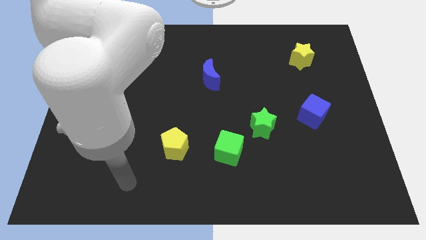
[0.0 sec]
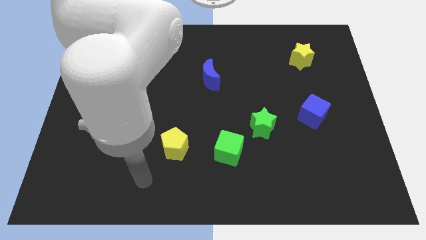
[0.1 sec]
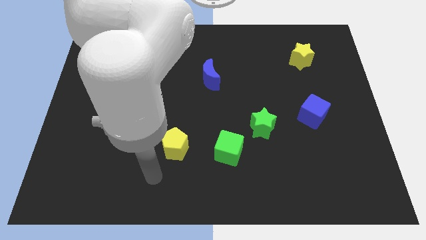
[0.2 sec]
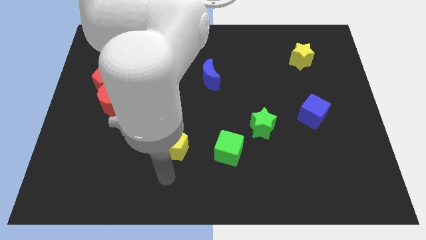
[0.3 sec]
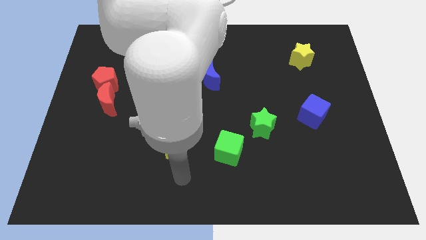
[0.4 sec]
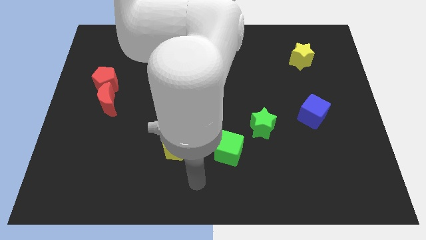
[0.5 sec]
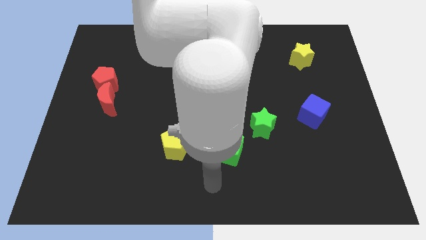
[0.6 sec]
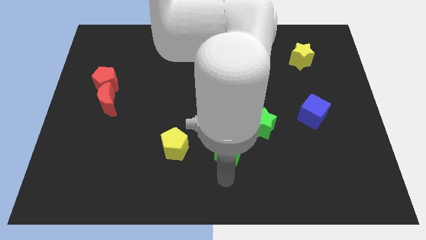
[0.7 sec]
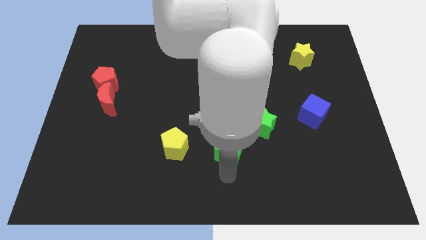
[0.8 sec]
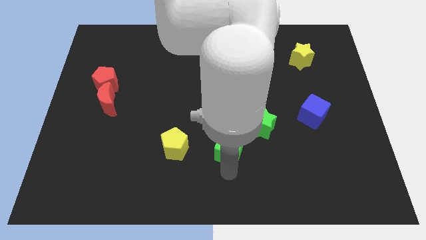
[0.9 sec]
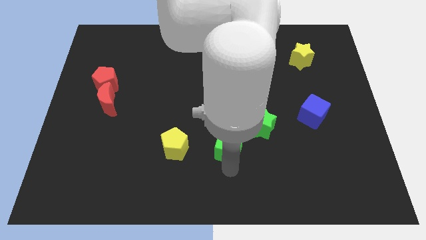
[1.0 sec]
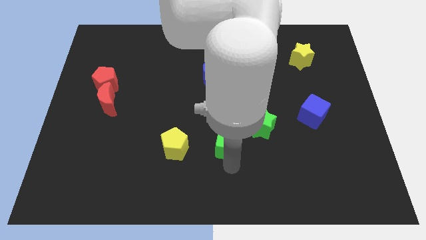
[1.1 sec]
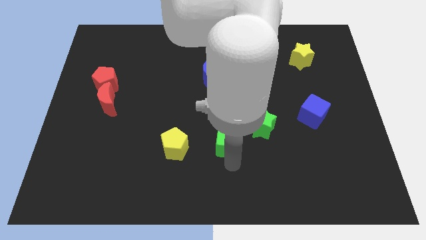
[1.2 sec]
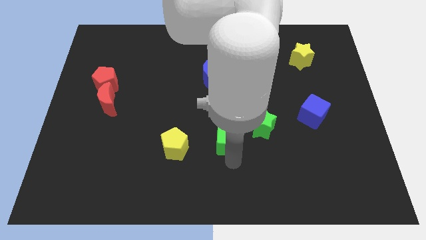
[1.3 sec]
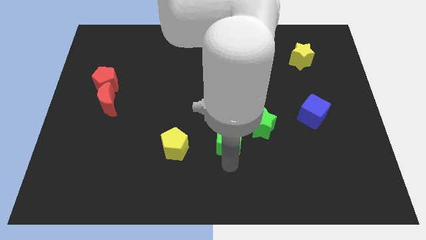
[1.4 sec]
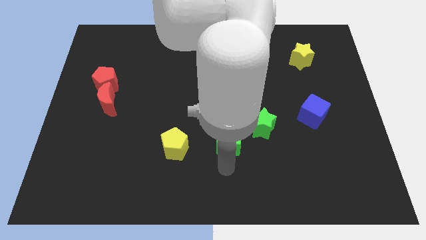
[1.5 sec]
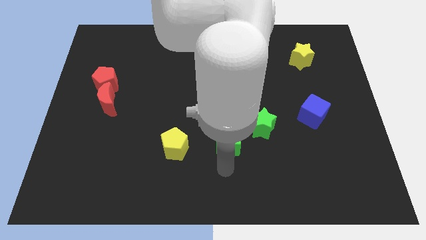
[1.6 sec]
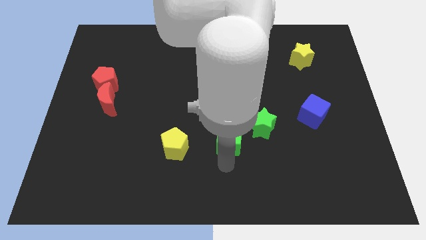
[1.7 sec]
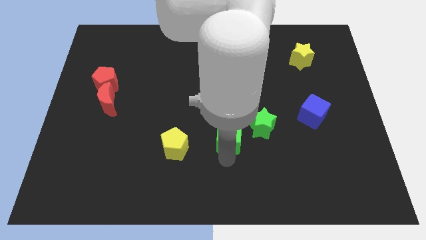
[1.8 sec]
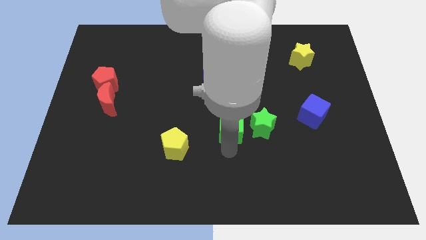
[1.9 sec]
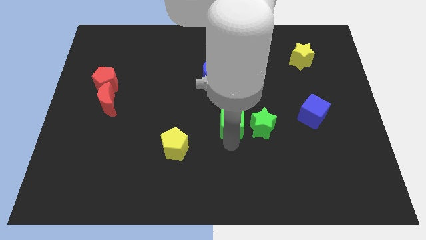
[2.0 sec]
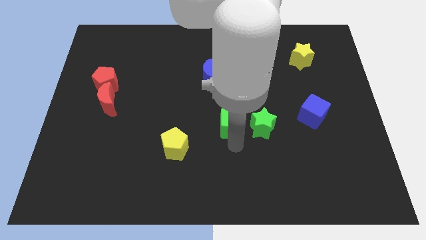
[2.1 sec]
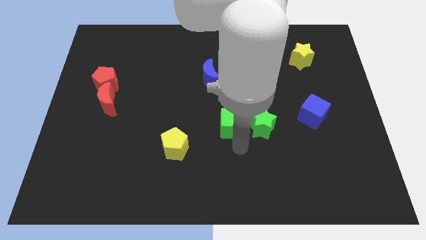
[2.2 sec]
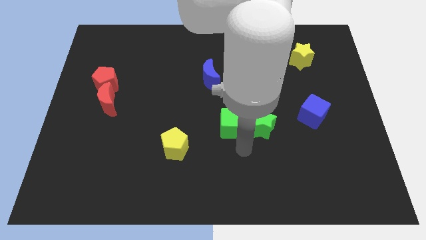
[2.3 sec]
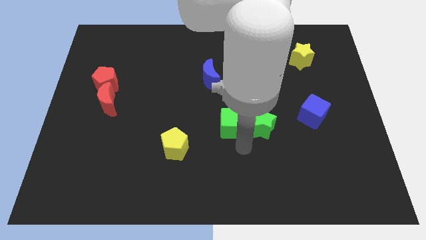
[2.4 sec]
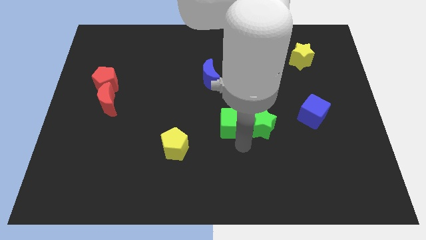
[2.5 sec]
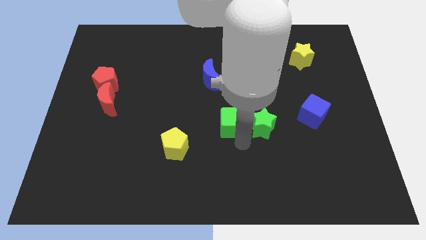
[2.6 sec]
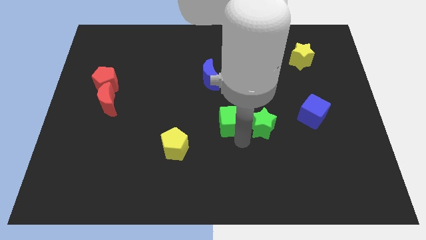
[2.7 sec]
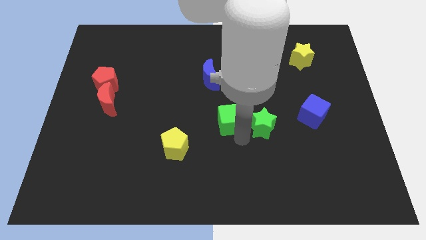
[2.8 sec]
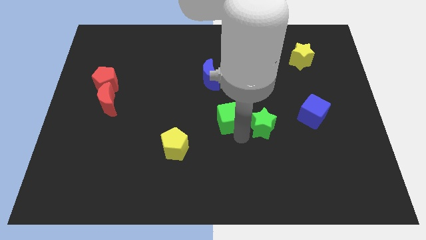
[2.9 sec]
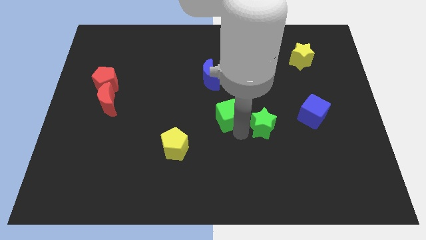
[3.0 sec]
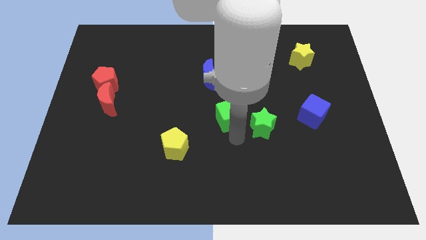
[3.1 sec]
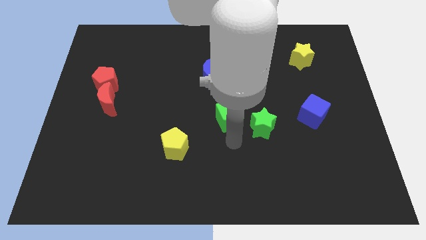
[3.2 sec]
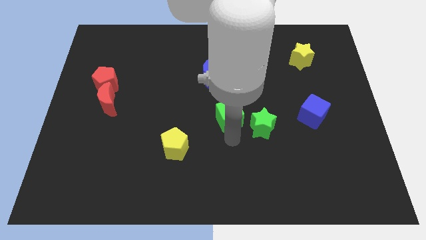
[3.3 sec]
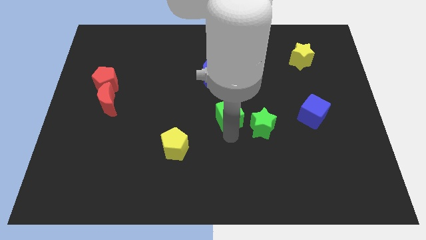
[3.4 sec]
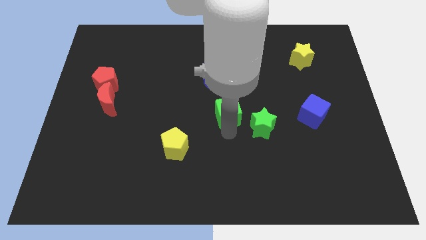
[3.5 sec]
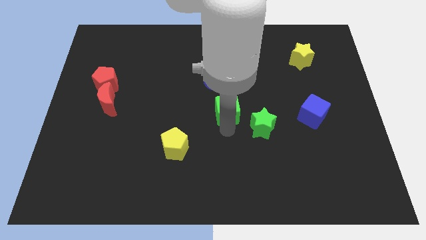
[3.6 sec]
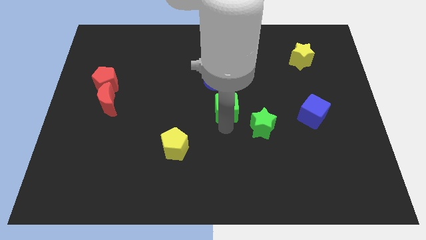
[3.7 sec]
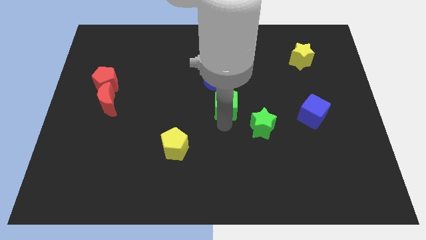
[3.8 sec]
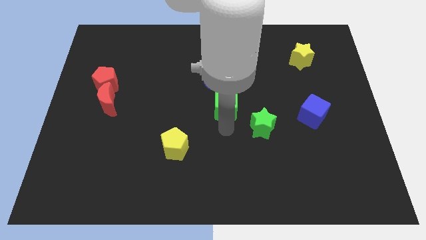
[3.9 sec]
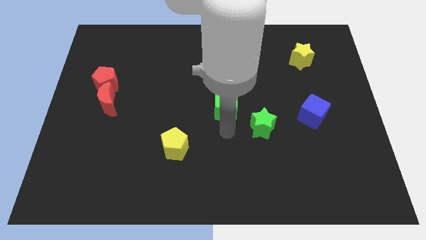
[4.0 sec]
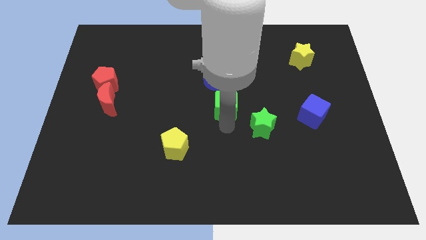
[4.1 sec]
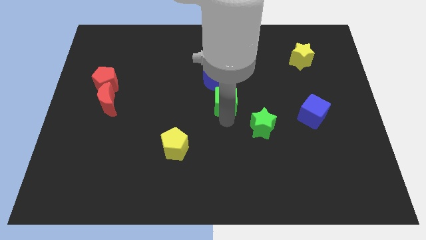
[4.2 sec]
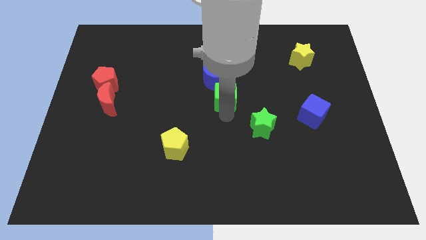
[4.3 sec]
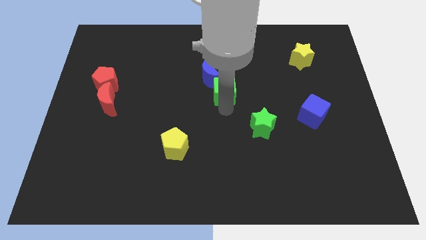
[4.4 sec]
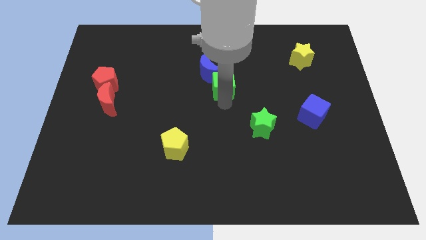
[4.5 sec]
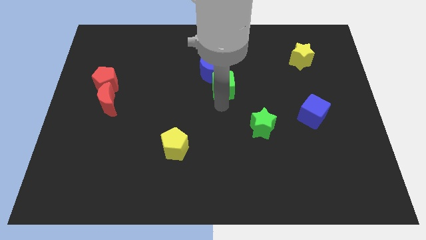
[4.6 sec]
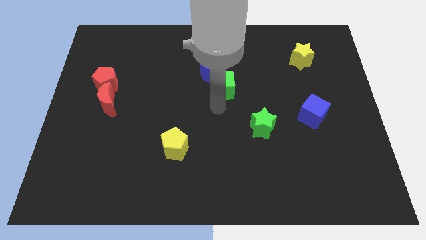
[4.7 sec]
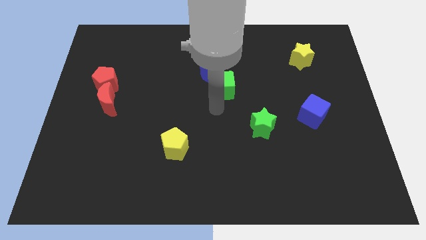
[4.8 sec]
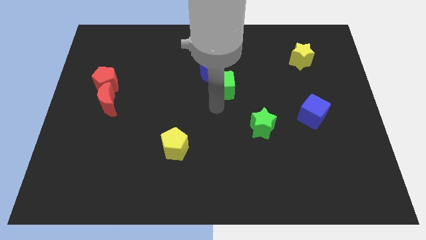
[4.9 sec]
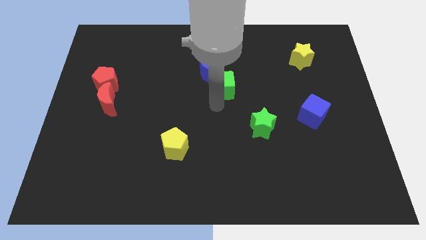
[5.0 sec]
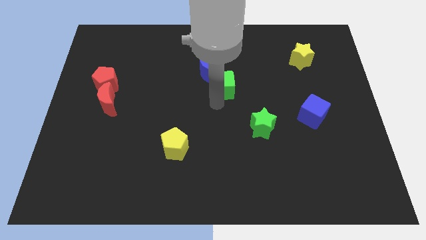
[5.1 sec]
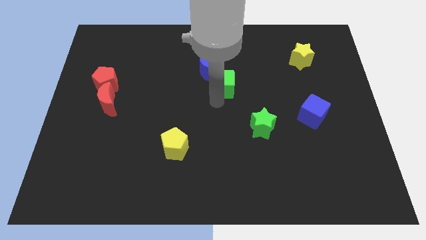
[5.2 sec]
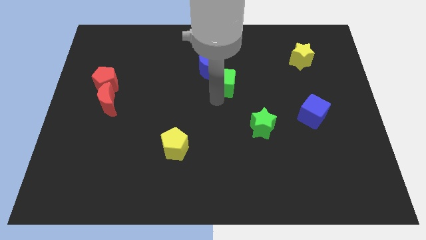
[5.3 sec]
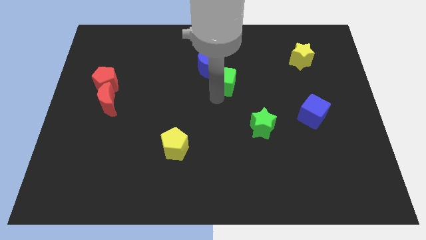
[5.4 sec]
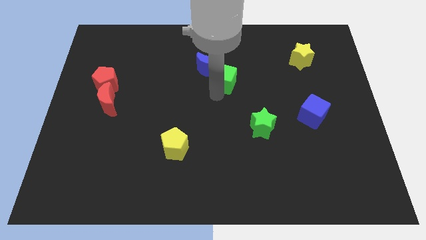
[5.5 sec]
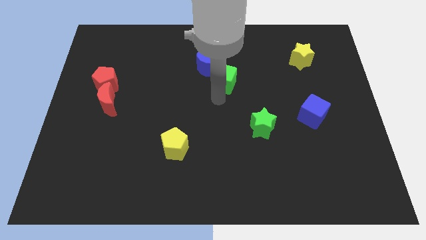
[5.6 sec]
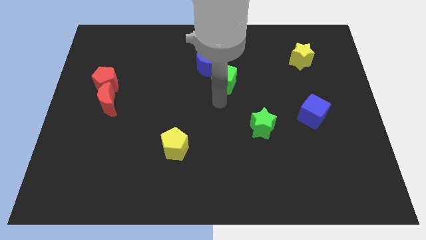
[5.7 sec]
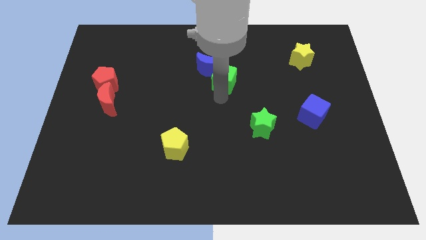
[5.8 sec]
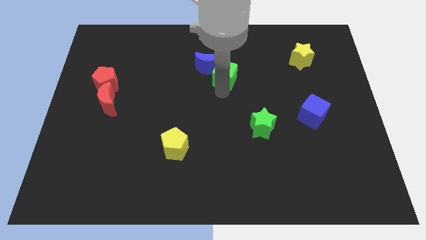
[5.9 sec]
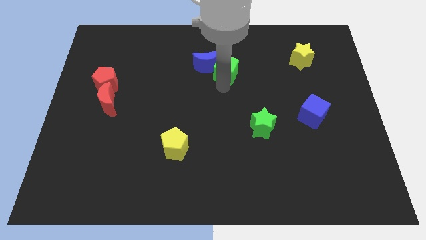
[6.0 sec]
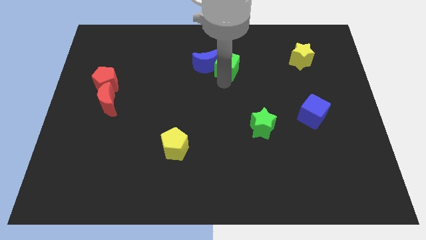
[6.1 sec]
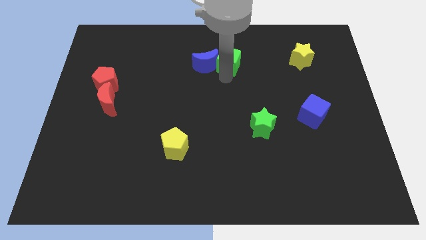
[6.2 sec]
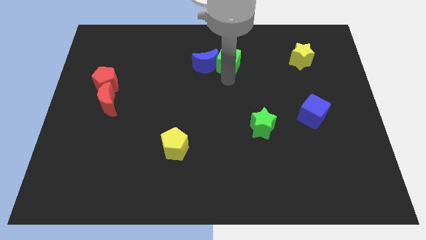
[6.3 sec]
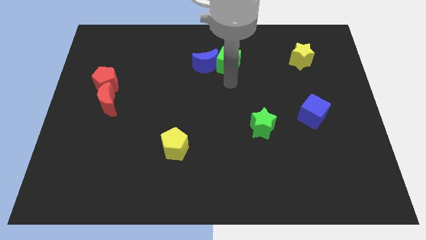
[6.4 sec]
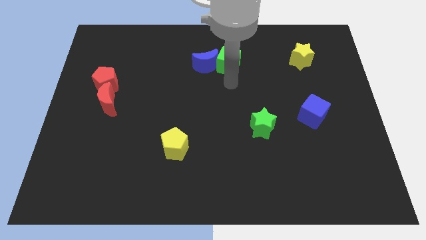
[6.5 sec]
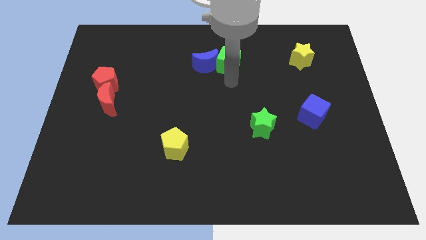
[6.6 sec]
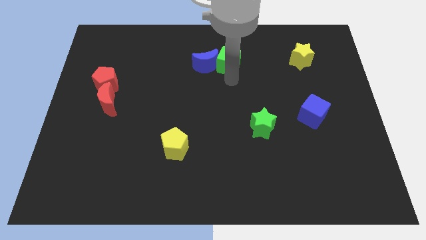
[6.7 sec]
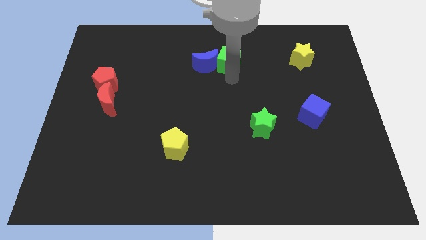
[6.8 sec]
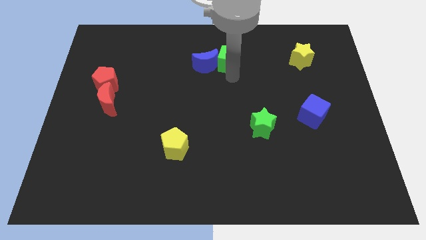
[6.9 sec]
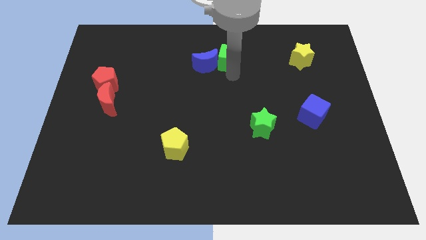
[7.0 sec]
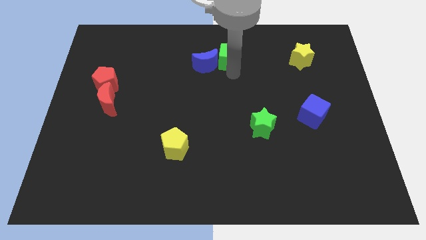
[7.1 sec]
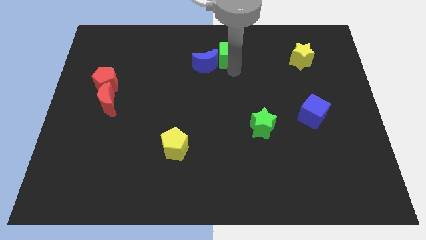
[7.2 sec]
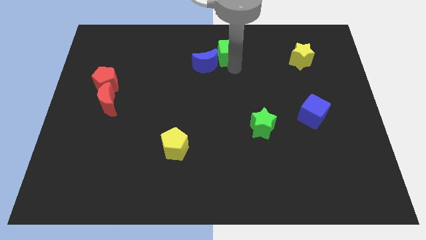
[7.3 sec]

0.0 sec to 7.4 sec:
move the green cube to the top side
